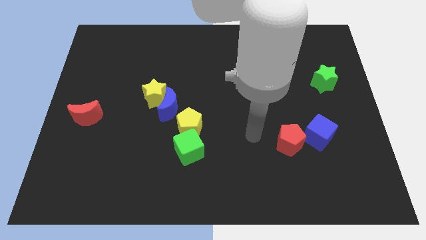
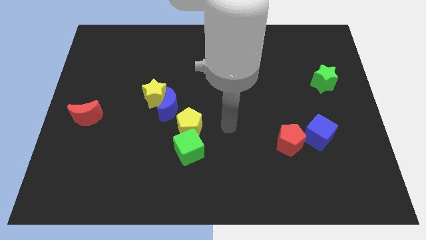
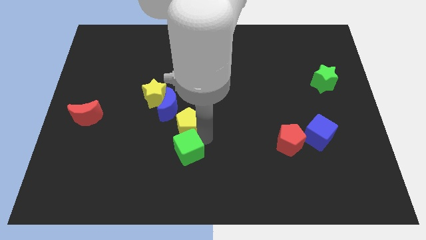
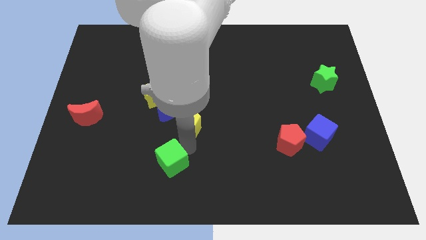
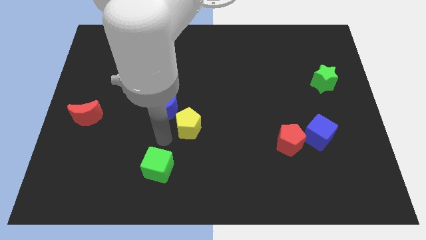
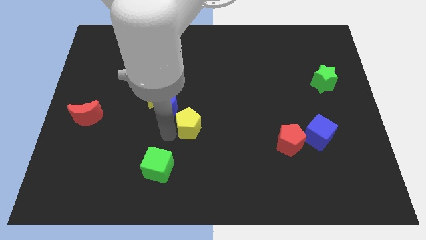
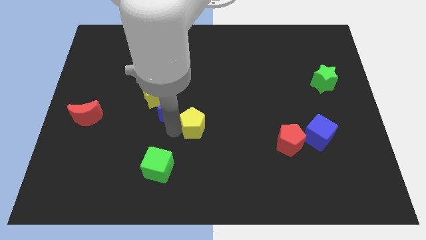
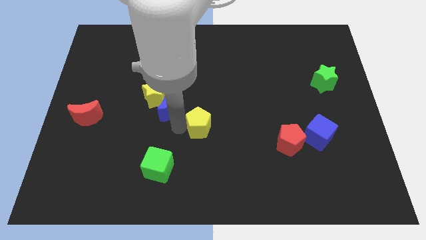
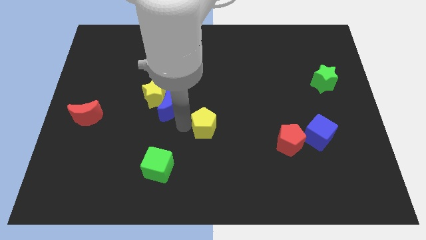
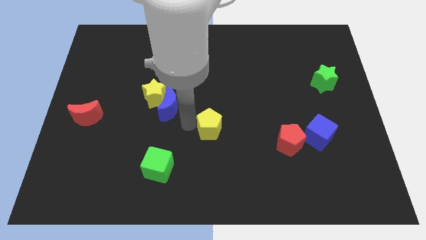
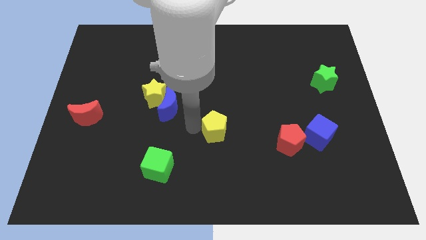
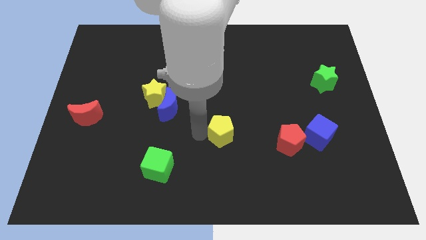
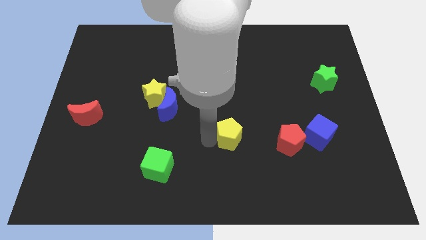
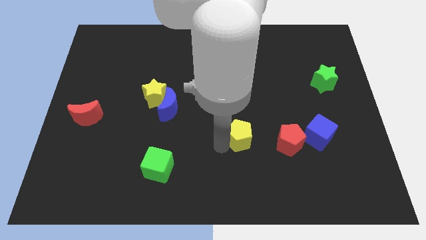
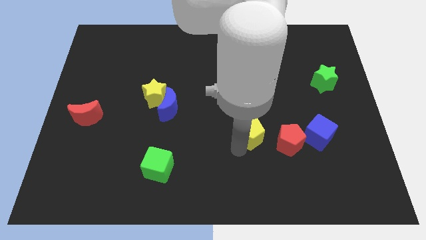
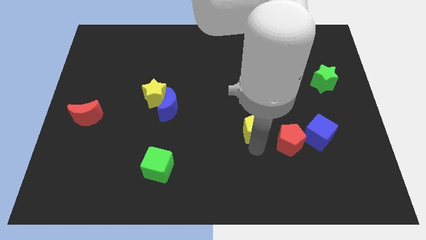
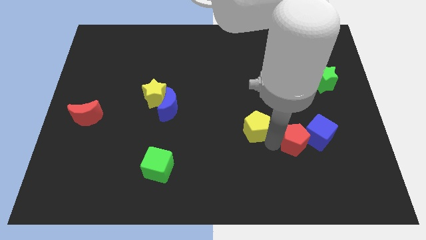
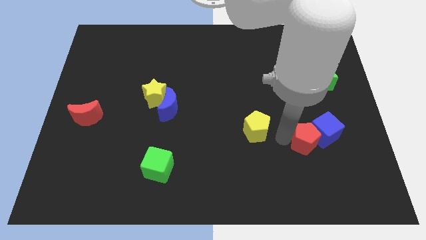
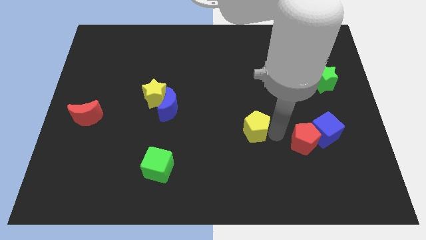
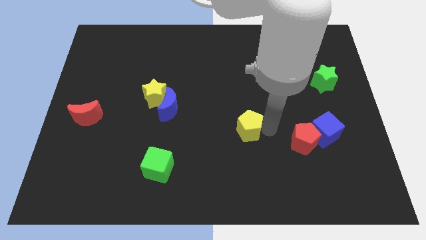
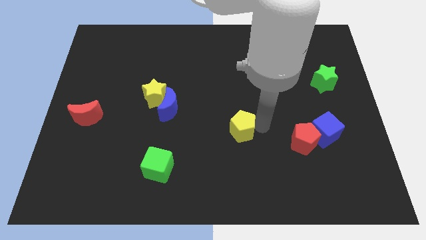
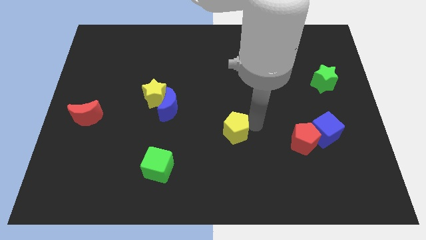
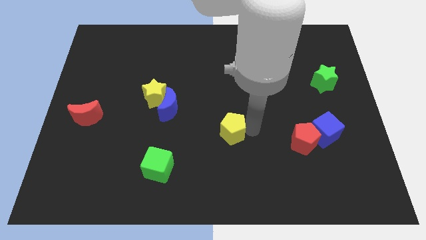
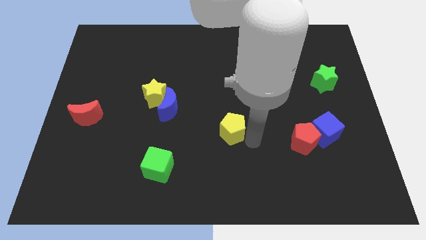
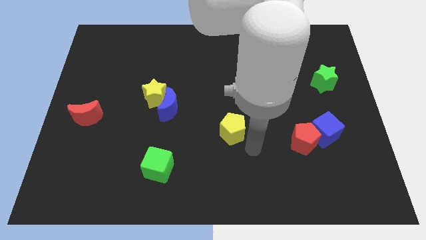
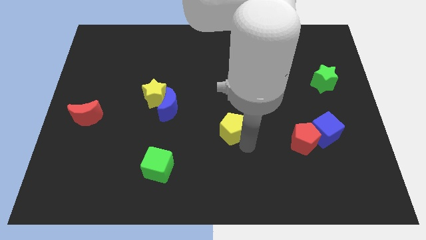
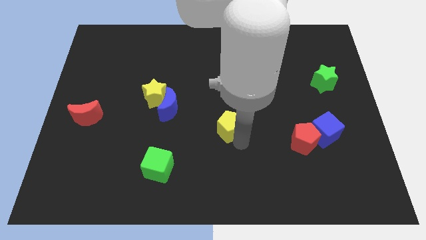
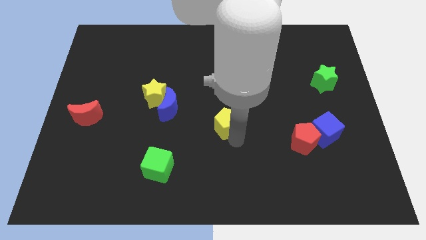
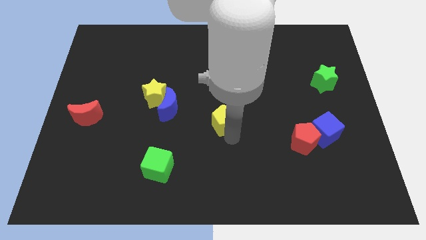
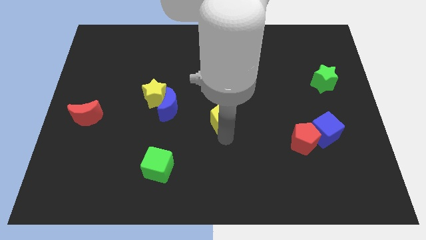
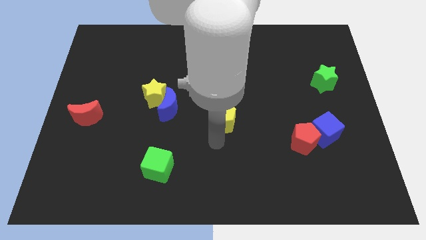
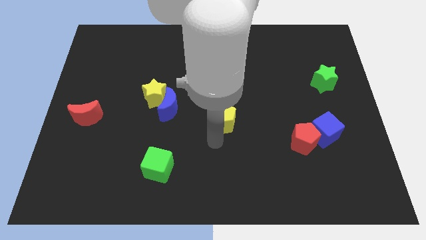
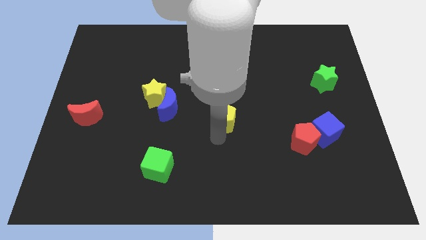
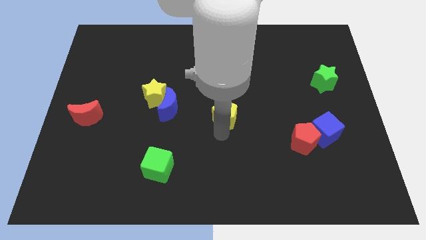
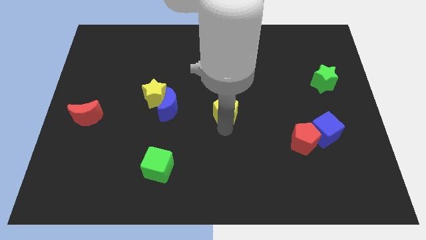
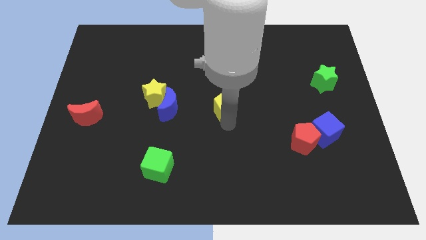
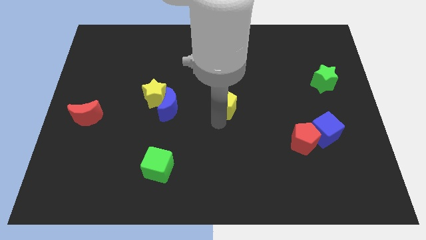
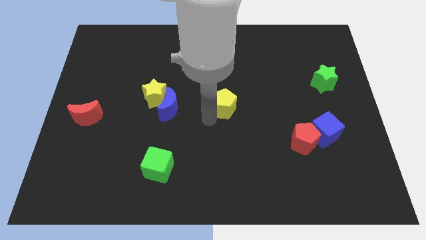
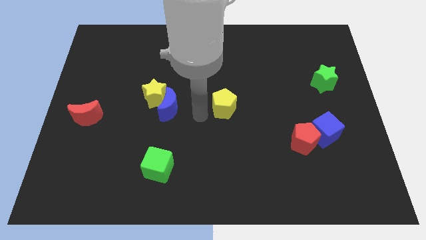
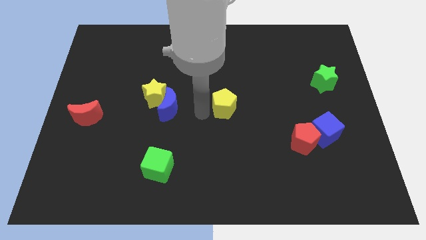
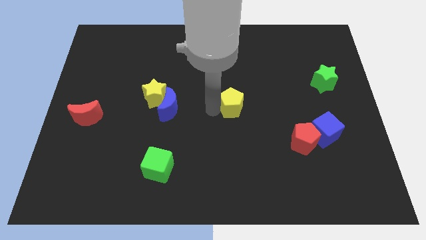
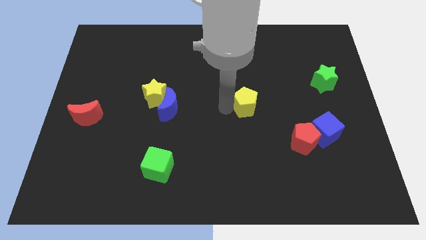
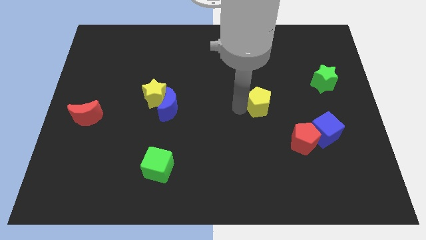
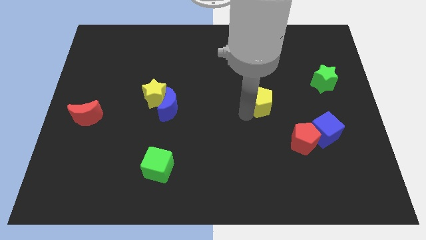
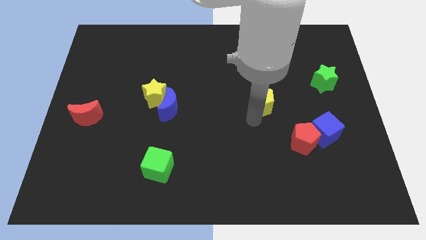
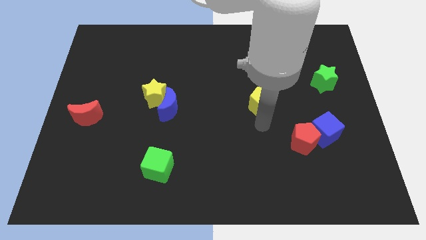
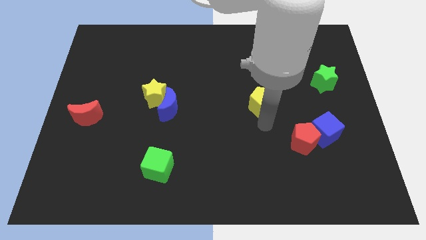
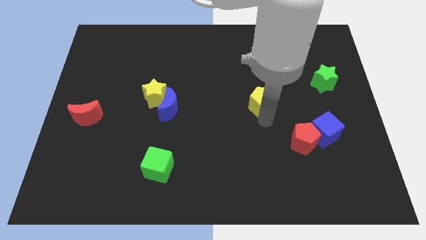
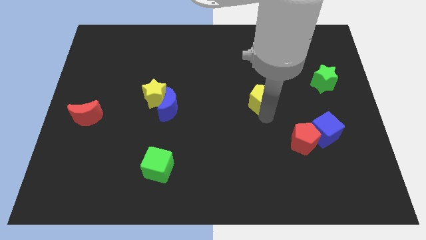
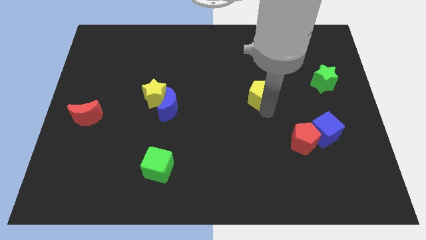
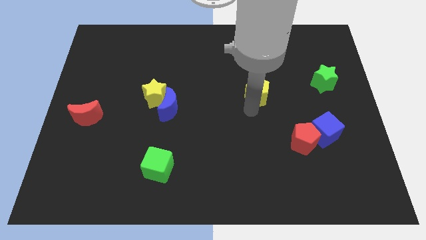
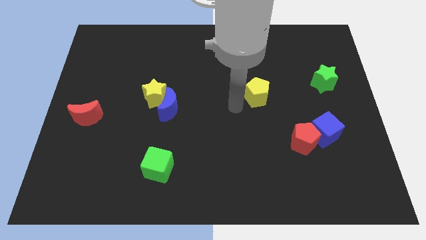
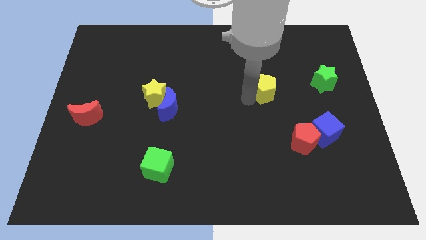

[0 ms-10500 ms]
slide the yellow pentagon to the left side of the green star

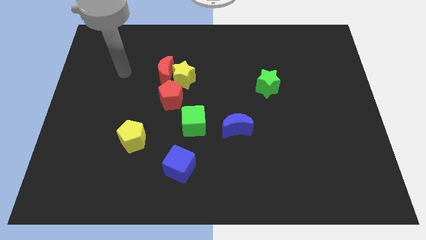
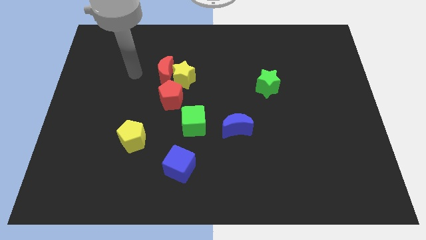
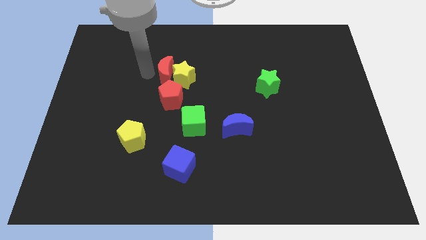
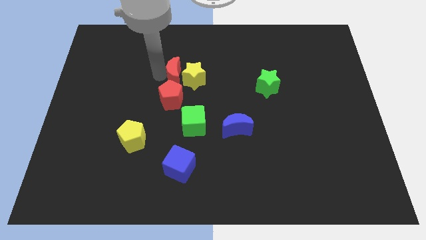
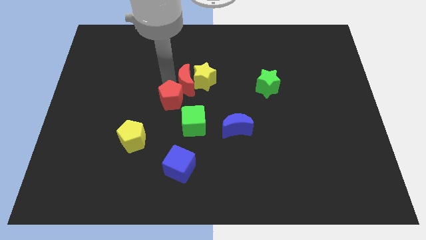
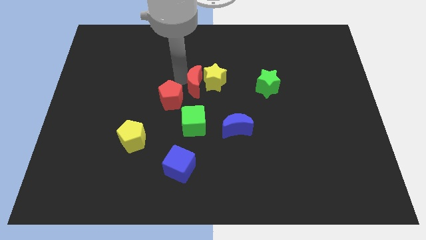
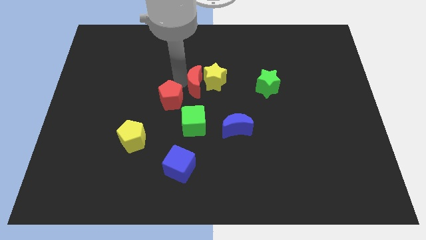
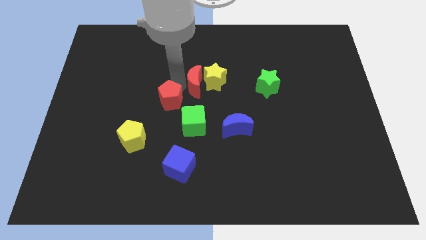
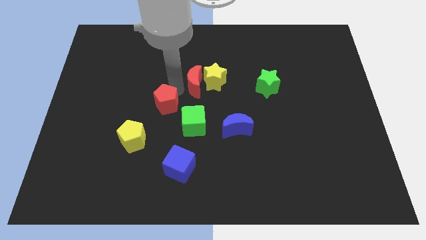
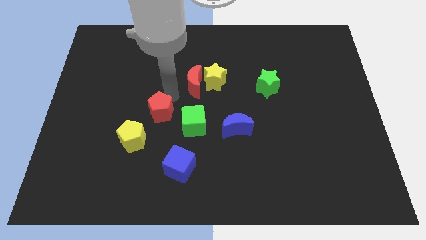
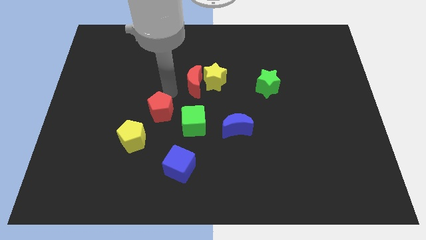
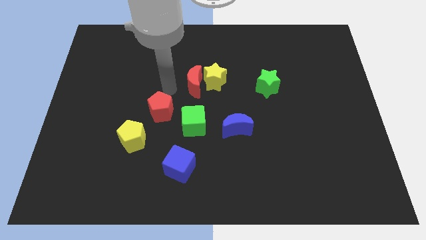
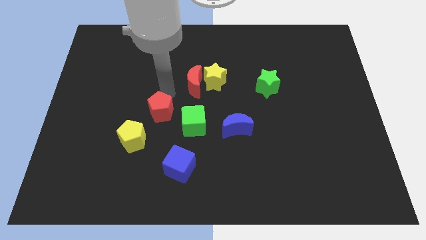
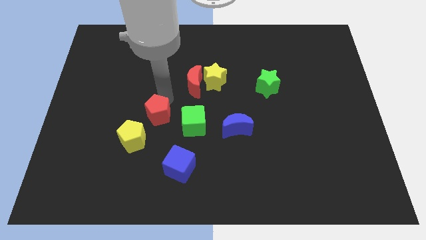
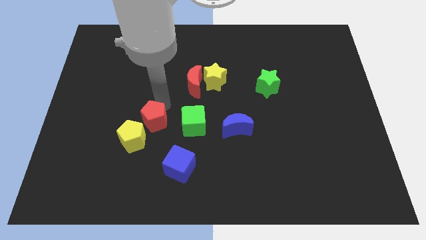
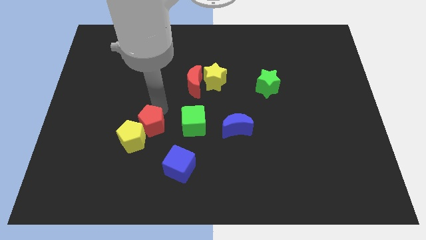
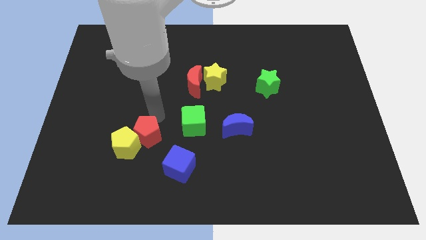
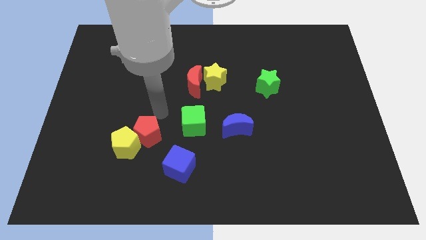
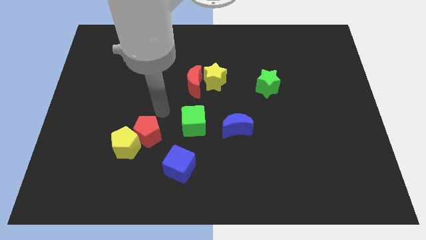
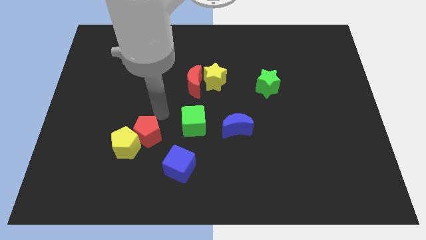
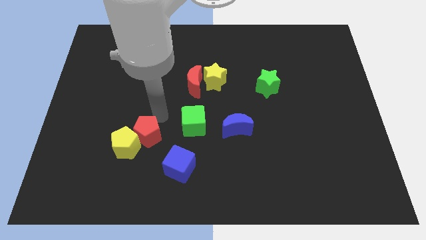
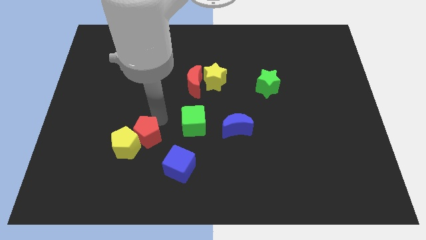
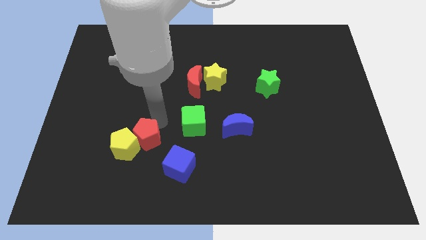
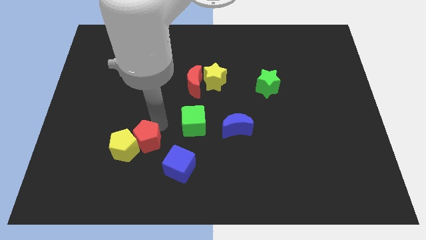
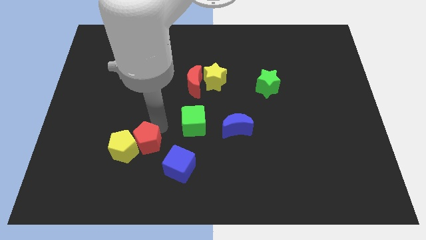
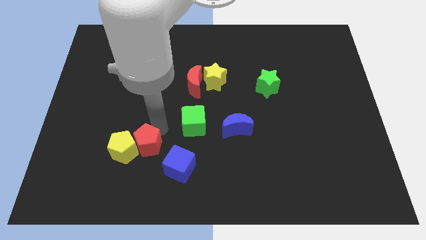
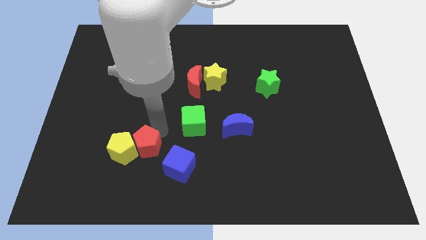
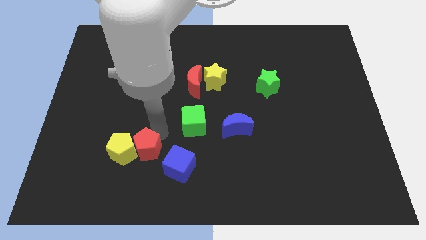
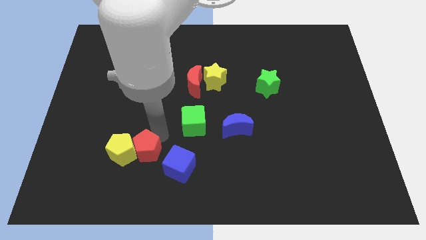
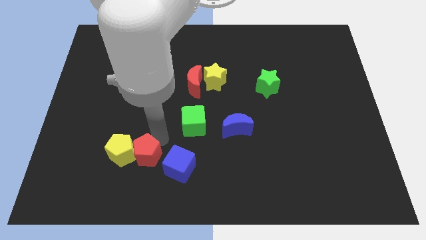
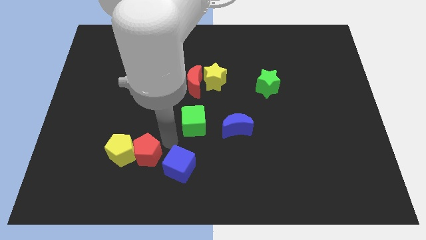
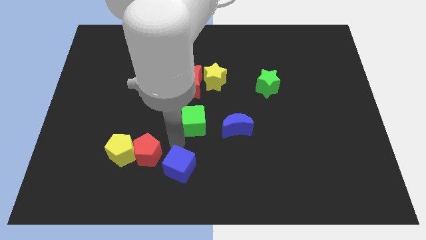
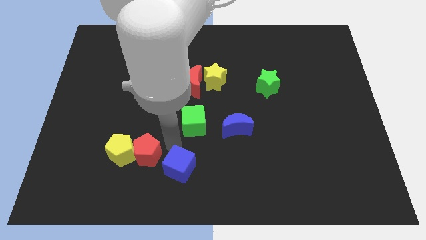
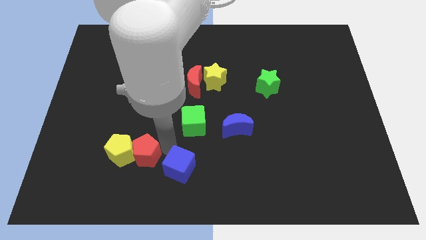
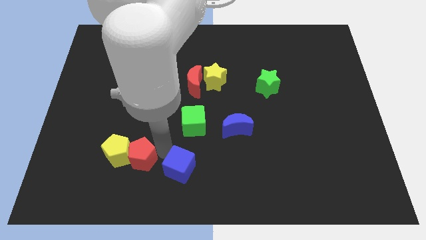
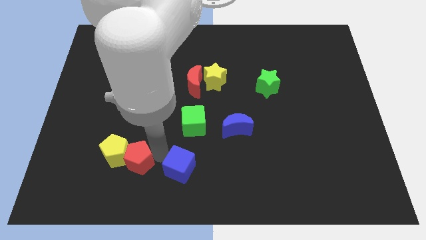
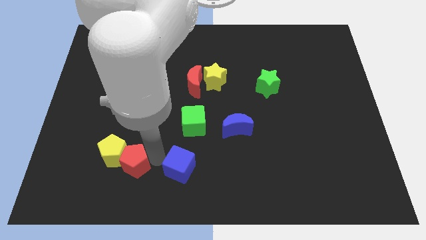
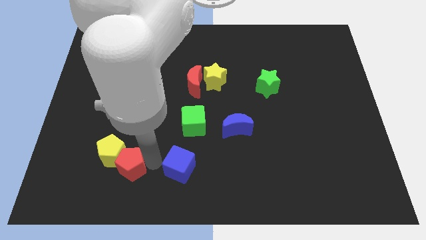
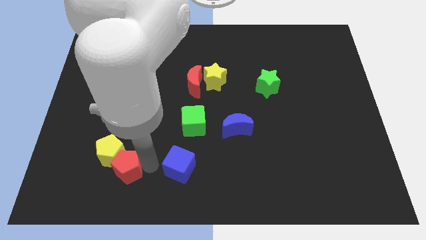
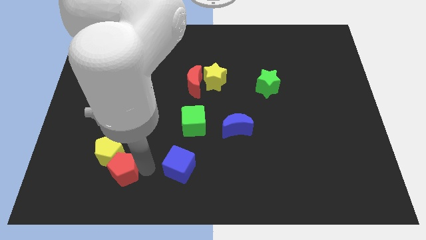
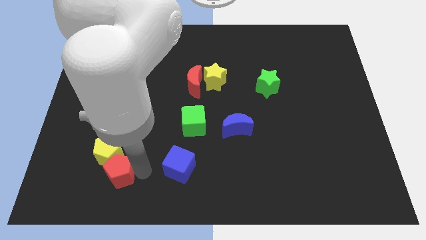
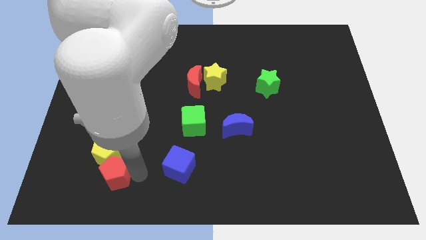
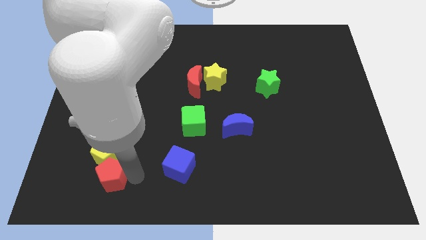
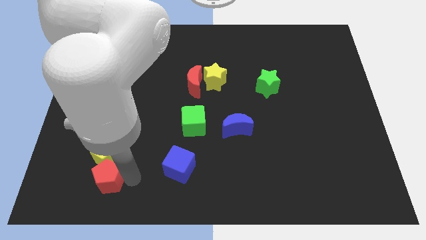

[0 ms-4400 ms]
slide the red pentagon to the bottom left side of the yellow pentagon
